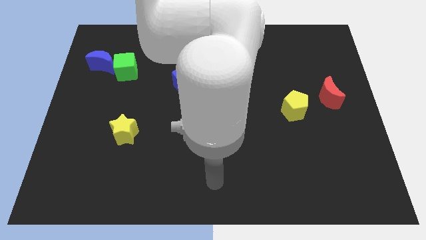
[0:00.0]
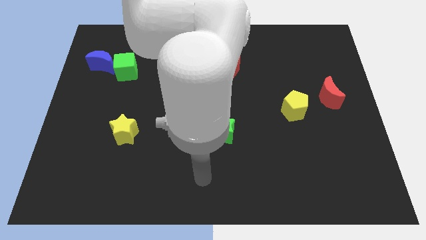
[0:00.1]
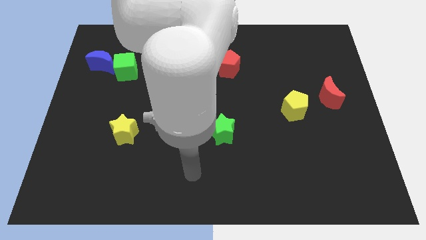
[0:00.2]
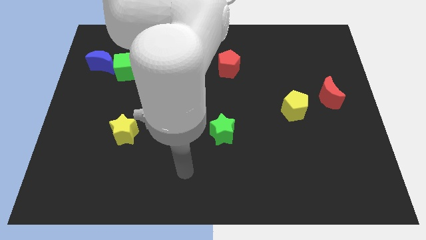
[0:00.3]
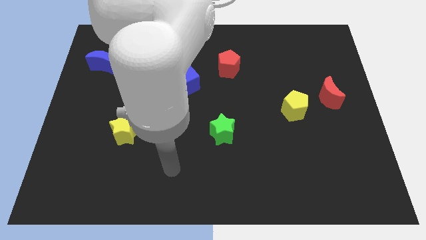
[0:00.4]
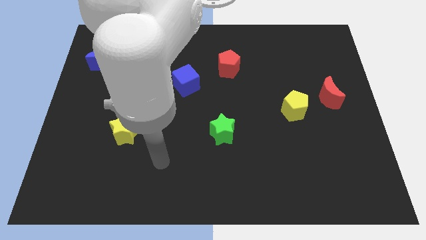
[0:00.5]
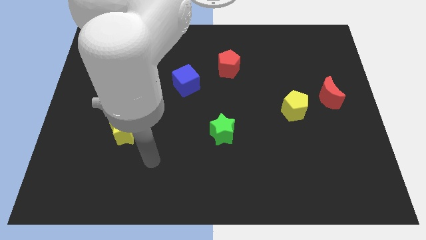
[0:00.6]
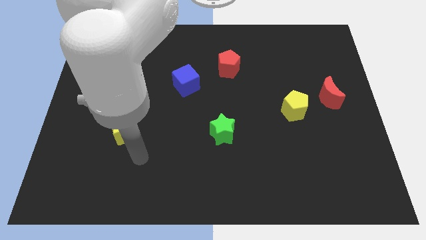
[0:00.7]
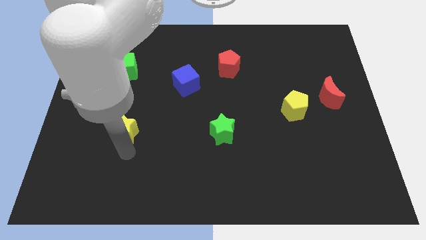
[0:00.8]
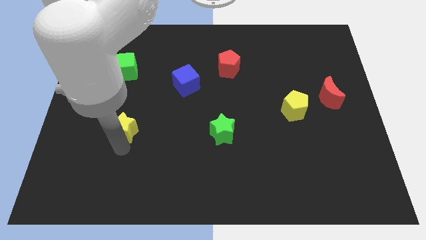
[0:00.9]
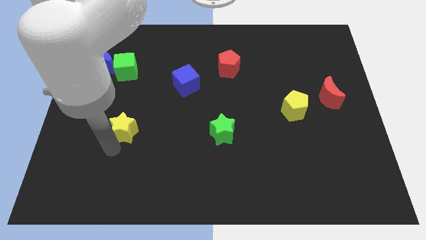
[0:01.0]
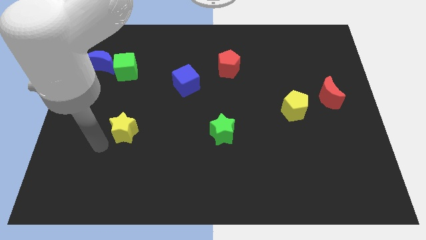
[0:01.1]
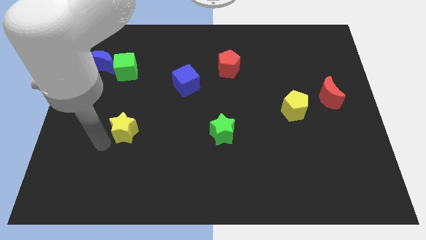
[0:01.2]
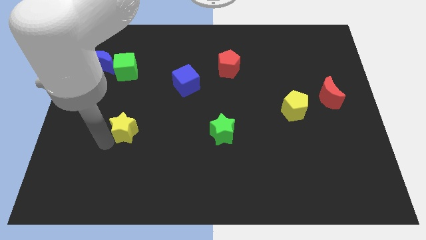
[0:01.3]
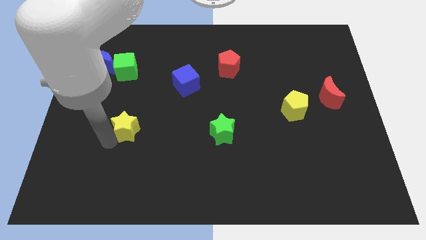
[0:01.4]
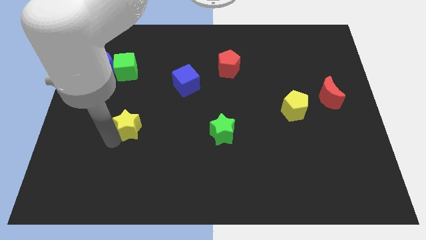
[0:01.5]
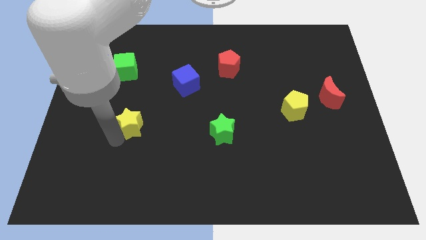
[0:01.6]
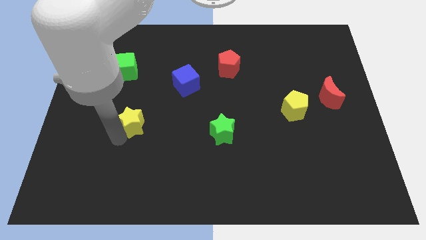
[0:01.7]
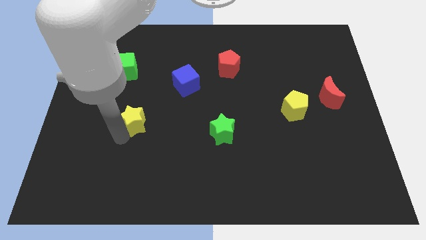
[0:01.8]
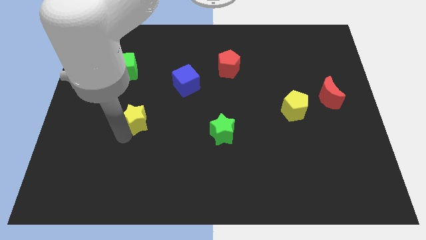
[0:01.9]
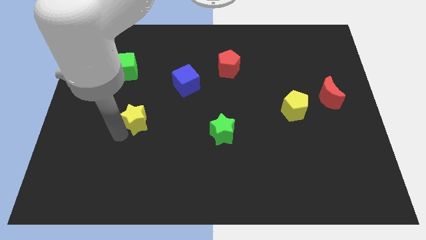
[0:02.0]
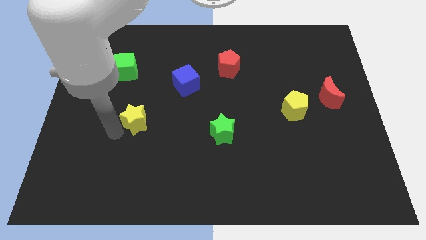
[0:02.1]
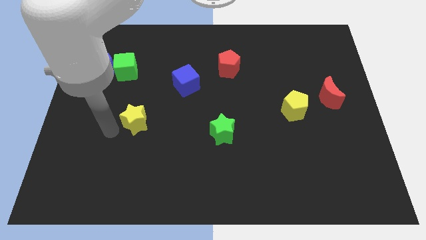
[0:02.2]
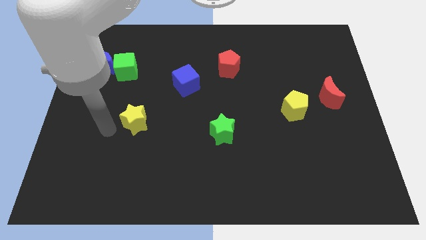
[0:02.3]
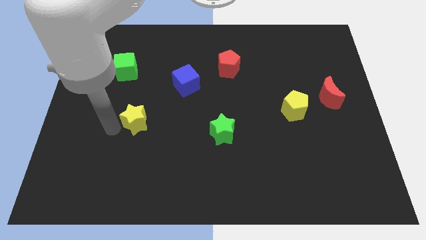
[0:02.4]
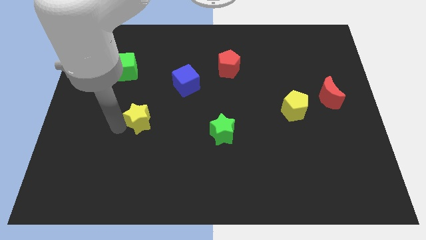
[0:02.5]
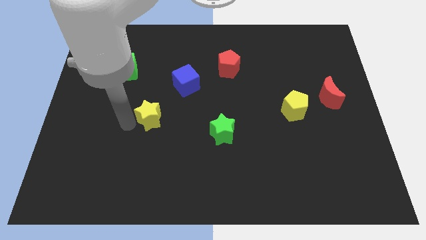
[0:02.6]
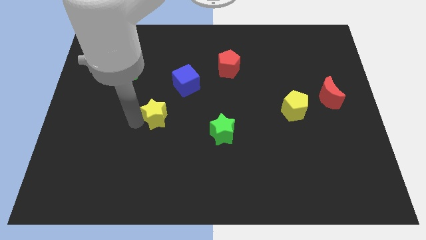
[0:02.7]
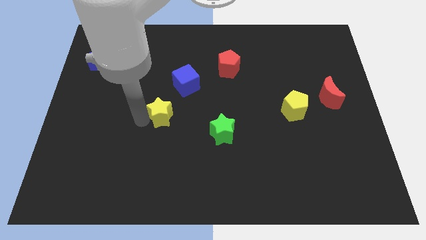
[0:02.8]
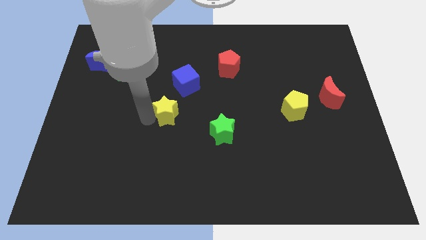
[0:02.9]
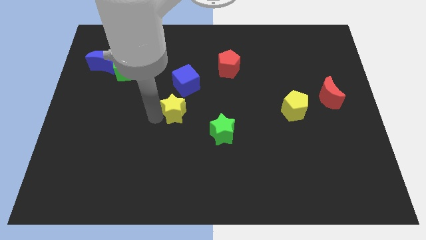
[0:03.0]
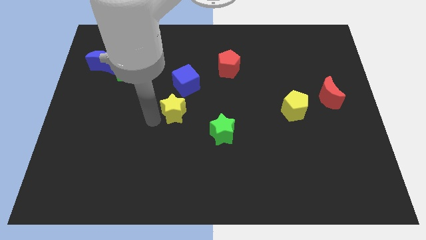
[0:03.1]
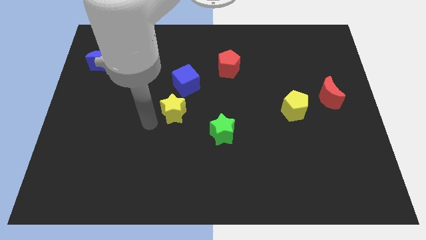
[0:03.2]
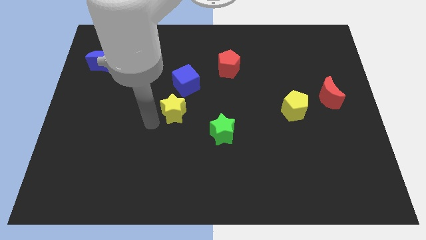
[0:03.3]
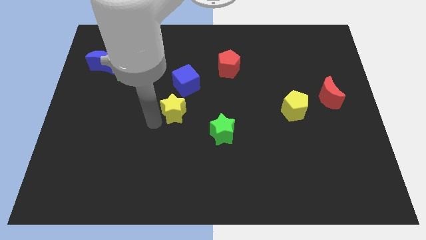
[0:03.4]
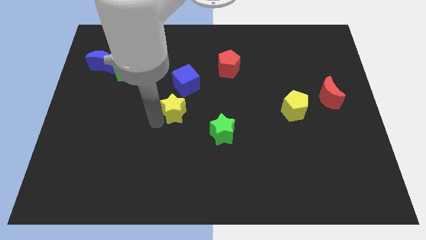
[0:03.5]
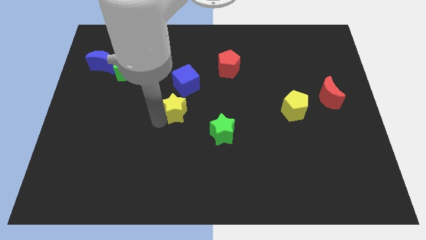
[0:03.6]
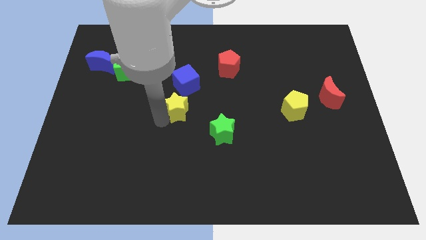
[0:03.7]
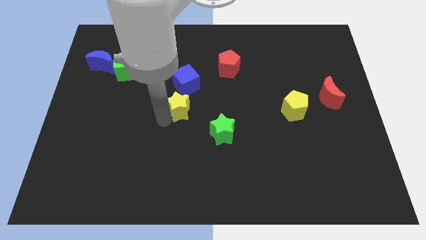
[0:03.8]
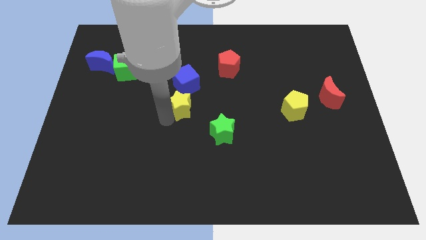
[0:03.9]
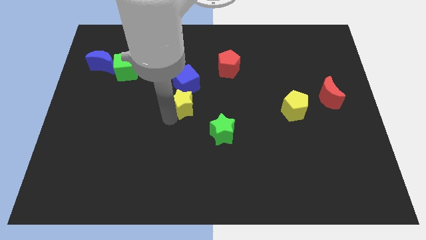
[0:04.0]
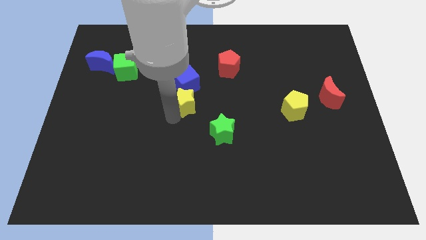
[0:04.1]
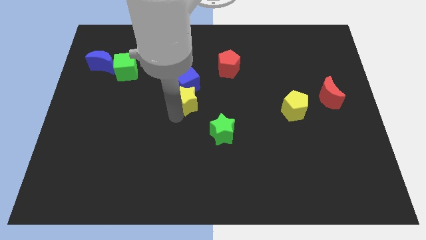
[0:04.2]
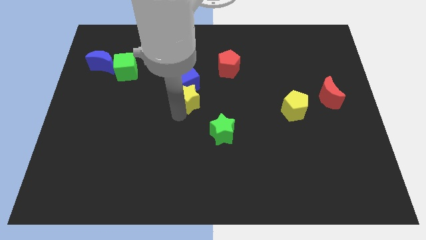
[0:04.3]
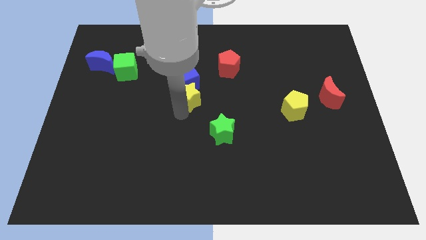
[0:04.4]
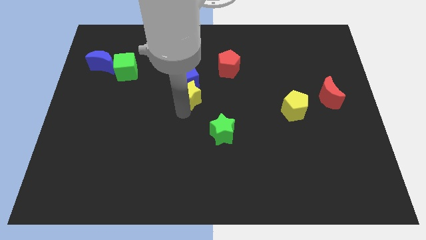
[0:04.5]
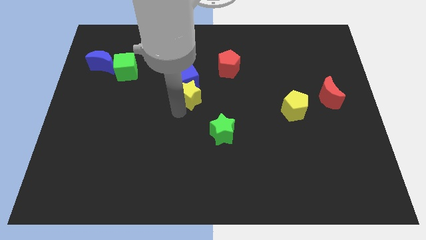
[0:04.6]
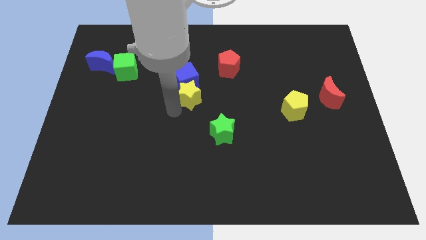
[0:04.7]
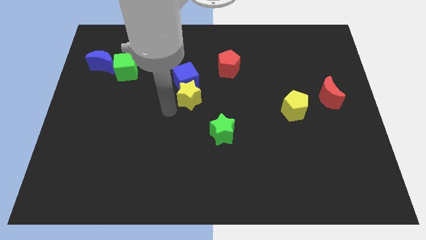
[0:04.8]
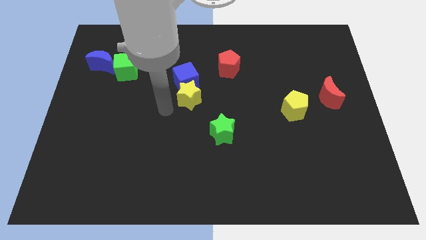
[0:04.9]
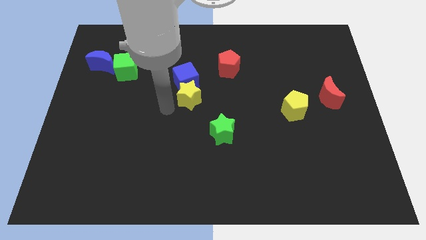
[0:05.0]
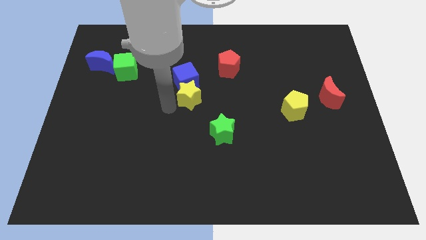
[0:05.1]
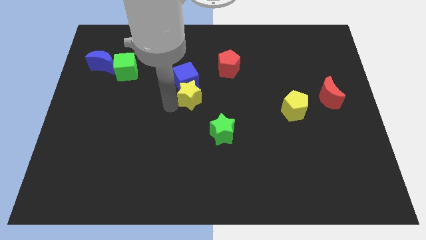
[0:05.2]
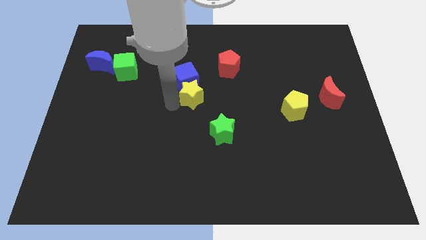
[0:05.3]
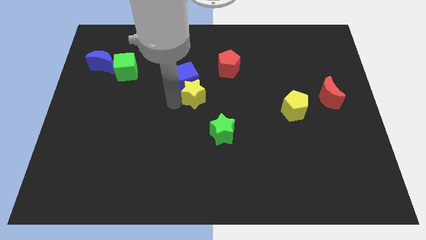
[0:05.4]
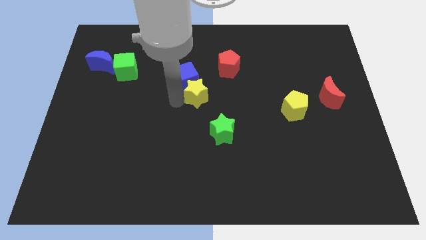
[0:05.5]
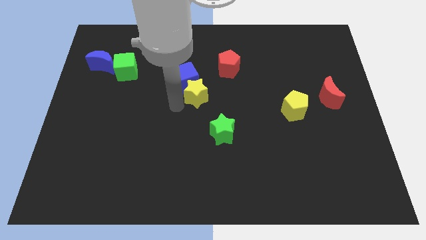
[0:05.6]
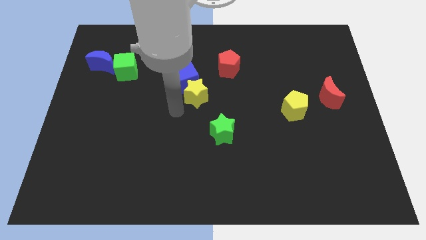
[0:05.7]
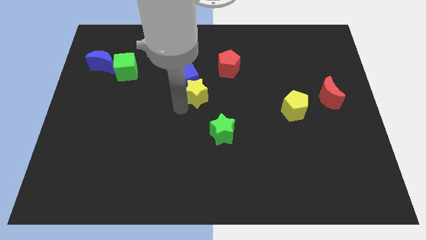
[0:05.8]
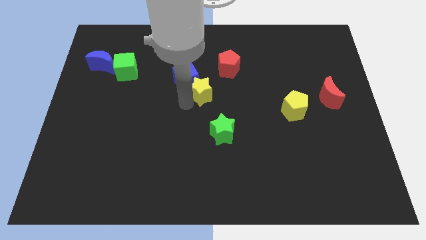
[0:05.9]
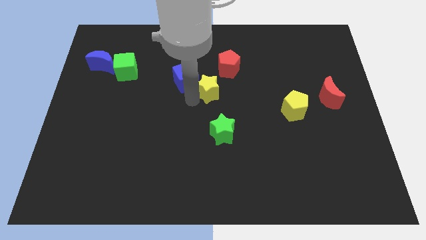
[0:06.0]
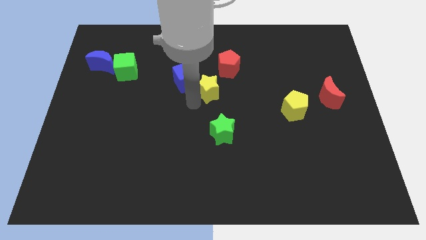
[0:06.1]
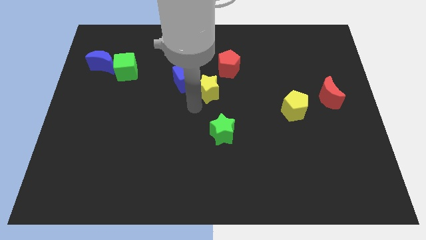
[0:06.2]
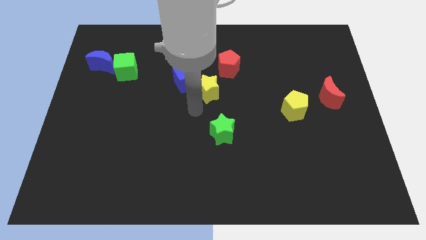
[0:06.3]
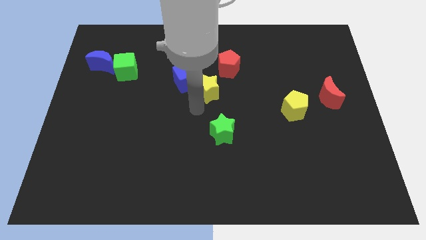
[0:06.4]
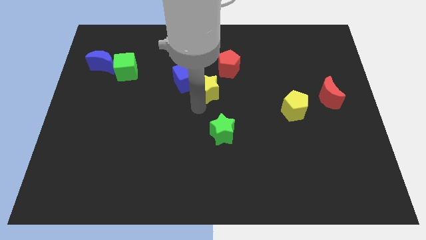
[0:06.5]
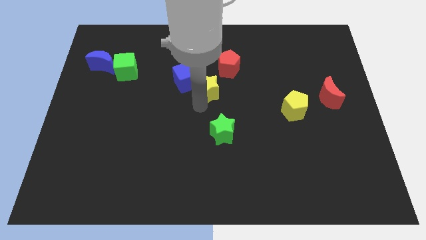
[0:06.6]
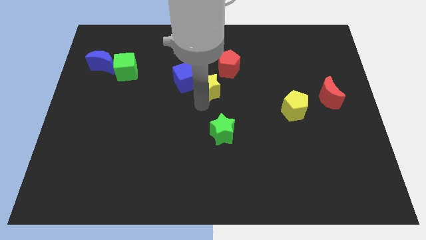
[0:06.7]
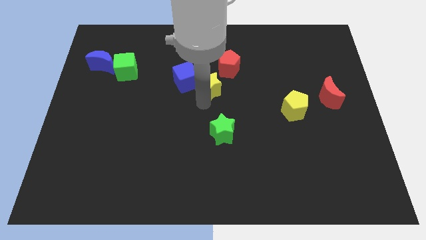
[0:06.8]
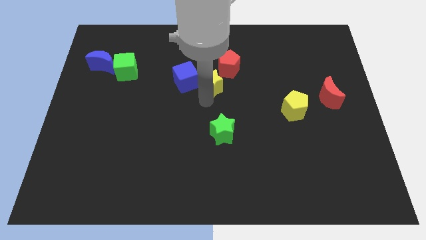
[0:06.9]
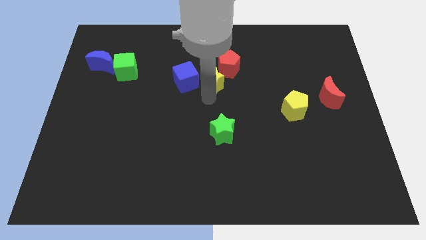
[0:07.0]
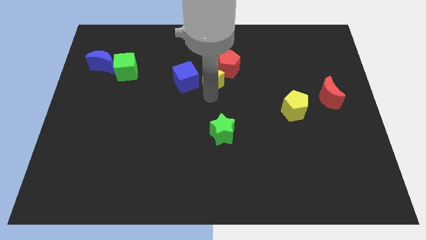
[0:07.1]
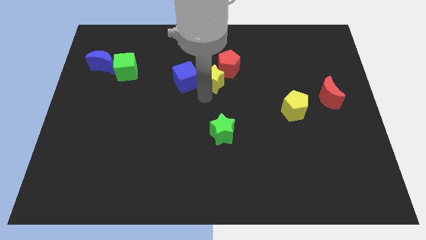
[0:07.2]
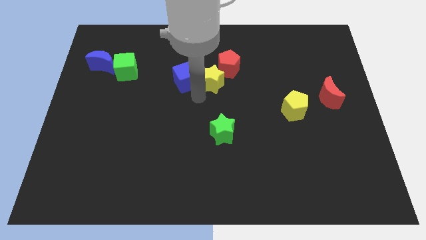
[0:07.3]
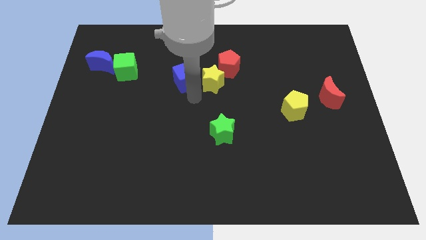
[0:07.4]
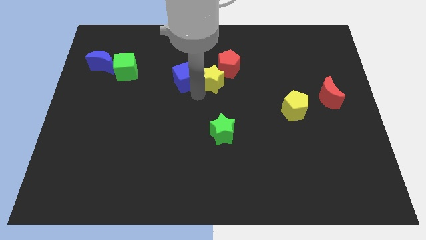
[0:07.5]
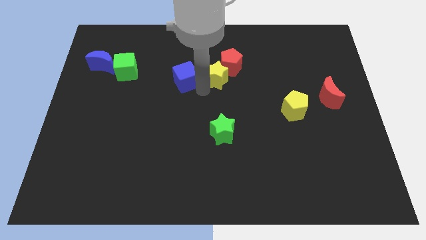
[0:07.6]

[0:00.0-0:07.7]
move the yellow star close to the red pentagon
